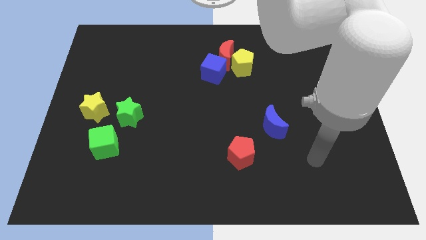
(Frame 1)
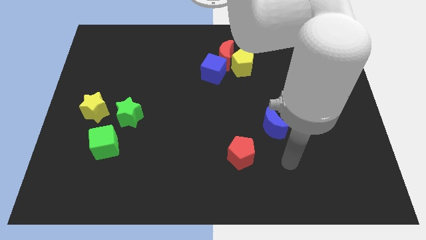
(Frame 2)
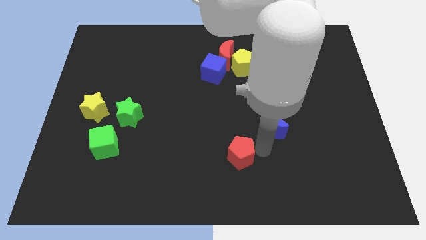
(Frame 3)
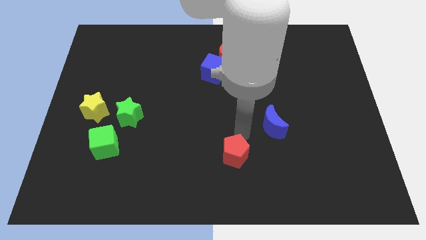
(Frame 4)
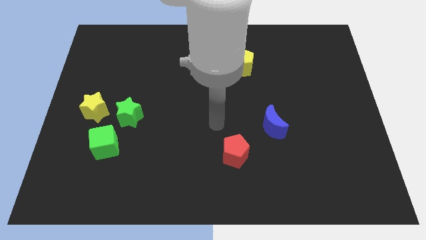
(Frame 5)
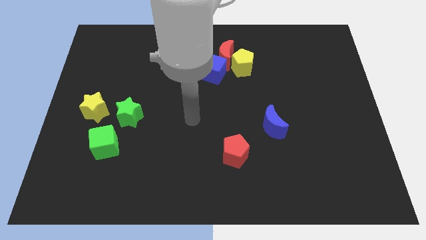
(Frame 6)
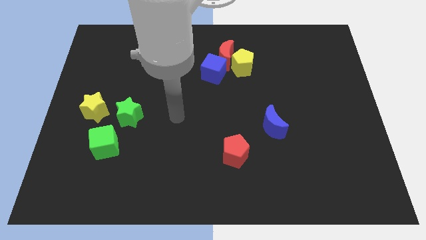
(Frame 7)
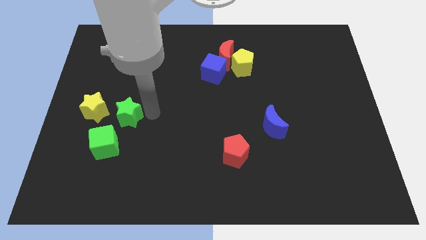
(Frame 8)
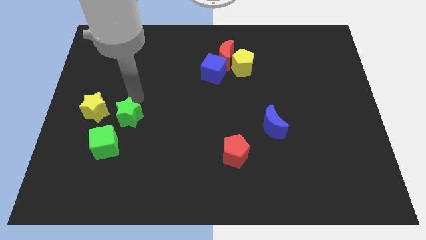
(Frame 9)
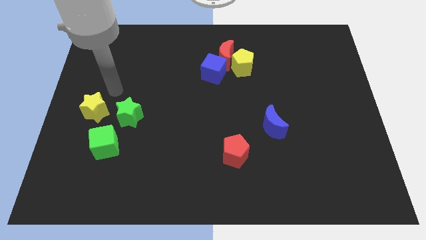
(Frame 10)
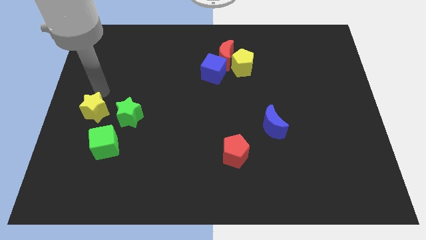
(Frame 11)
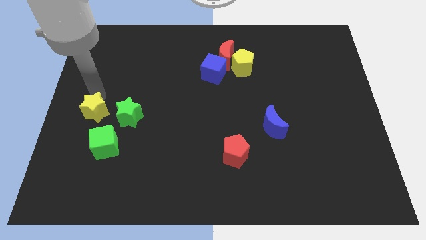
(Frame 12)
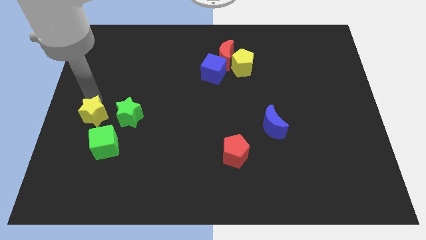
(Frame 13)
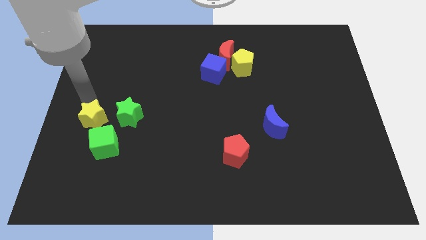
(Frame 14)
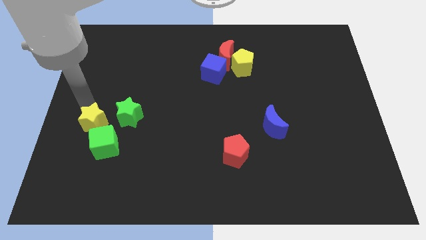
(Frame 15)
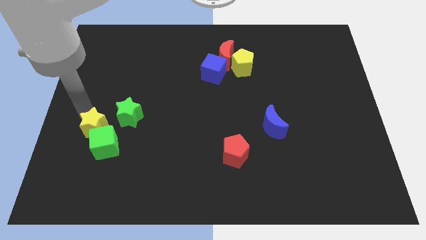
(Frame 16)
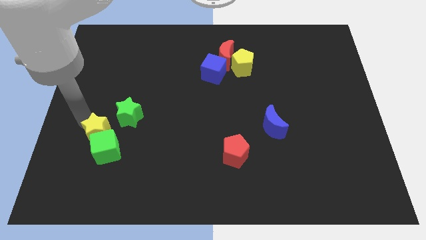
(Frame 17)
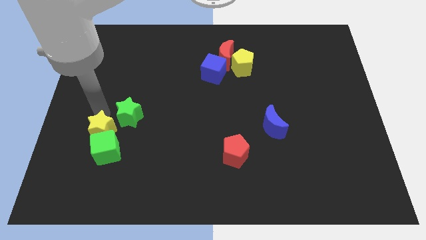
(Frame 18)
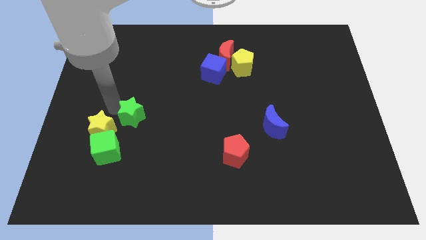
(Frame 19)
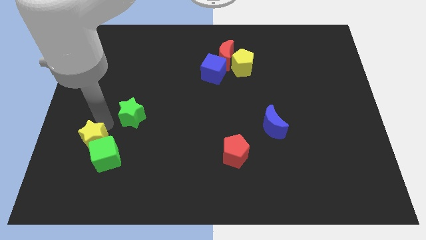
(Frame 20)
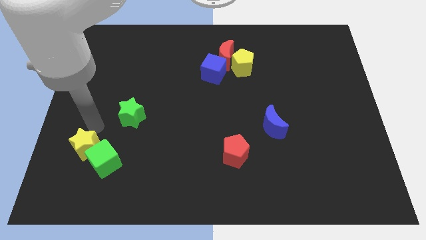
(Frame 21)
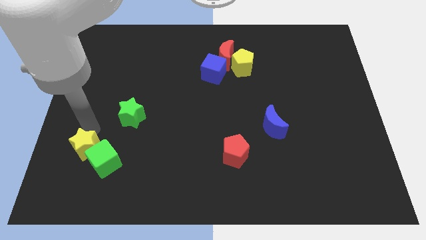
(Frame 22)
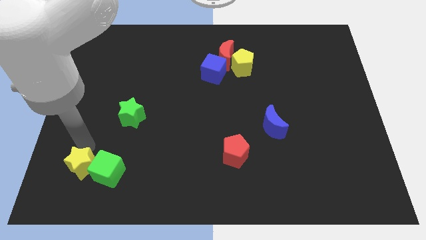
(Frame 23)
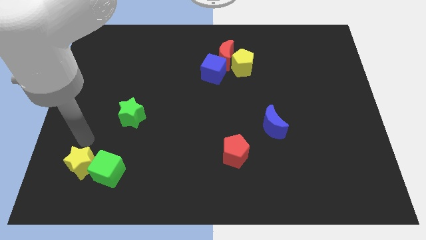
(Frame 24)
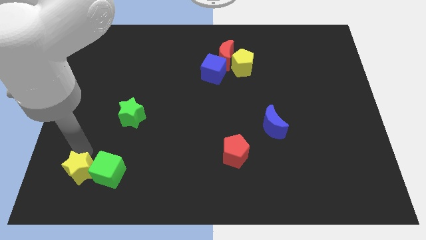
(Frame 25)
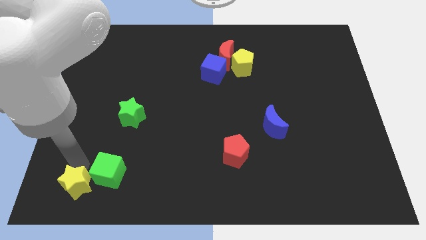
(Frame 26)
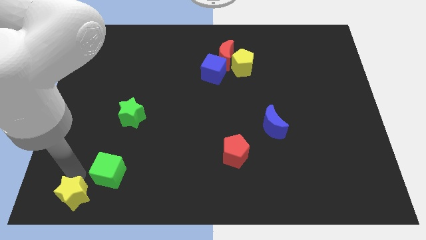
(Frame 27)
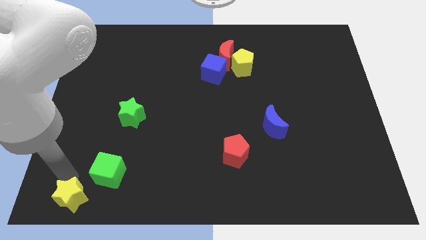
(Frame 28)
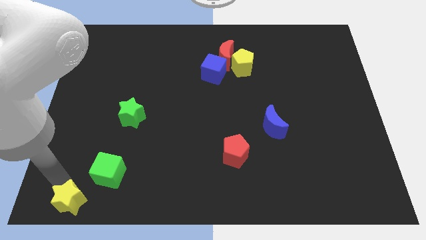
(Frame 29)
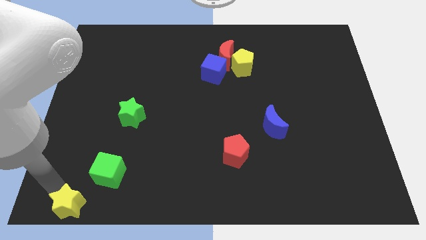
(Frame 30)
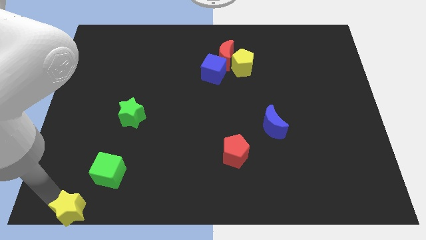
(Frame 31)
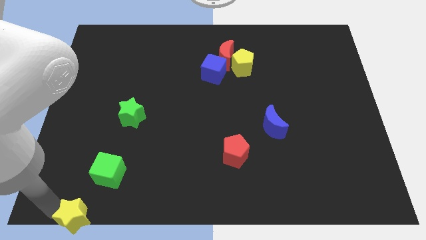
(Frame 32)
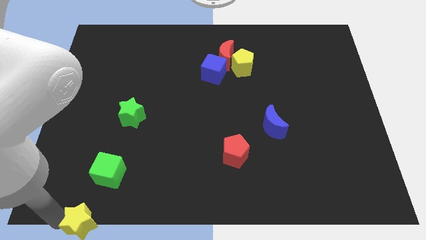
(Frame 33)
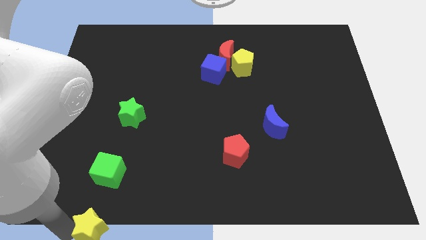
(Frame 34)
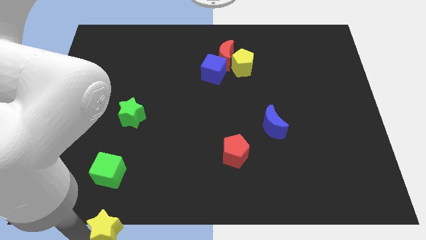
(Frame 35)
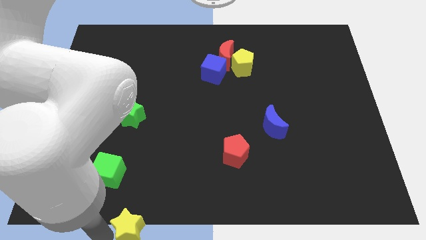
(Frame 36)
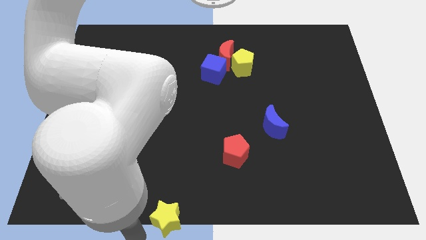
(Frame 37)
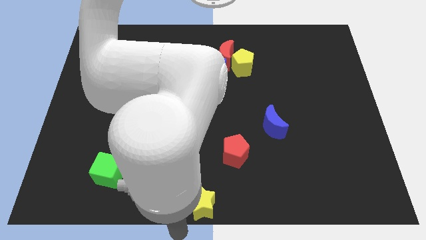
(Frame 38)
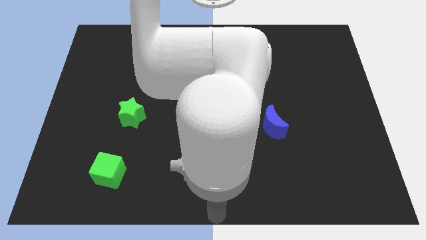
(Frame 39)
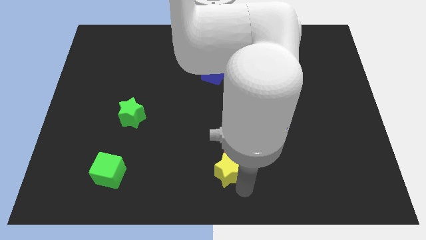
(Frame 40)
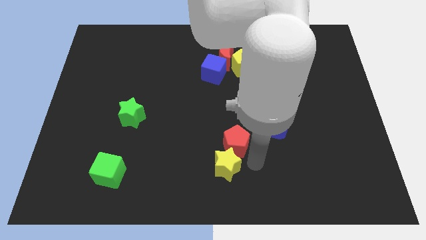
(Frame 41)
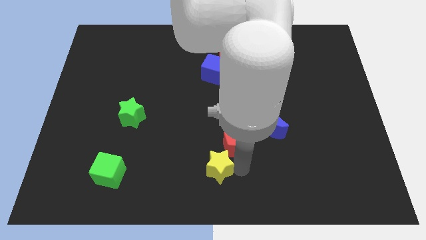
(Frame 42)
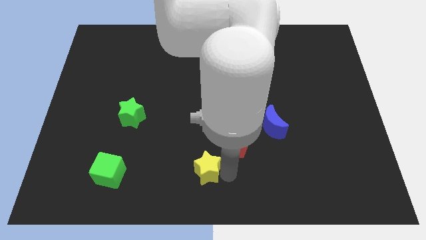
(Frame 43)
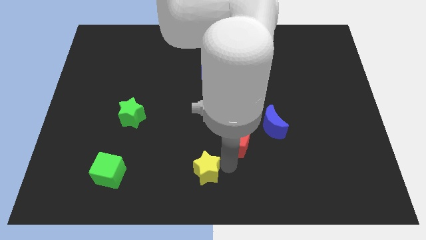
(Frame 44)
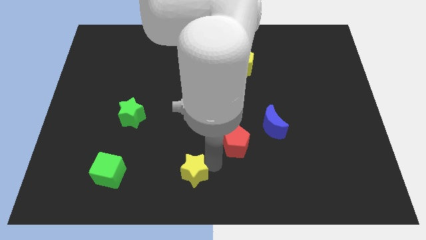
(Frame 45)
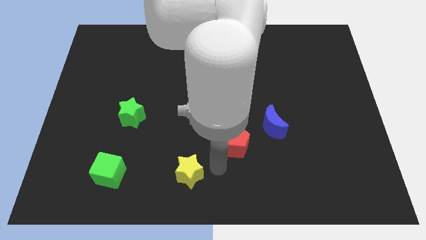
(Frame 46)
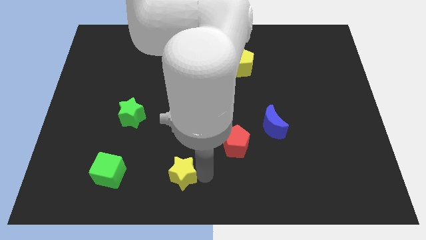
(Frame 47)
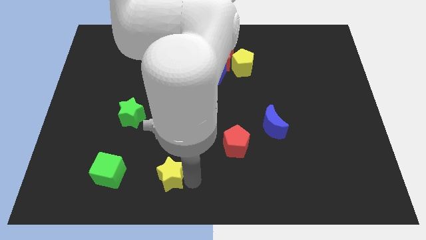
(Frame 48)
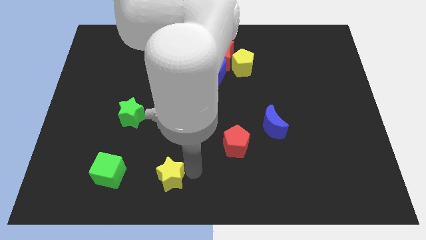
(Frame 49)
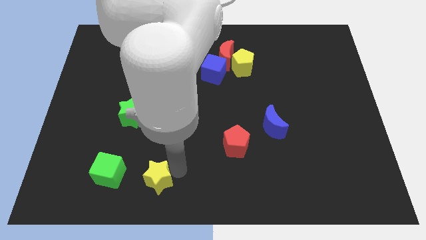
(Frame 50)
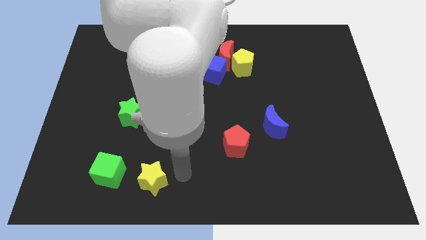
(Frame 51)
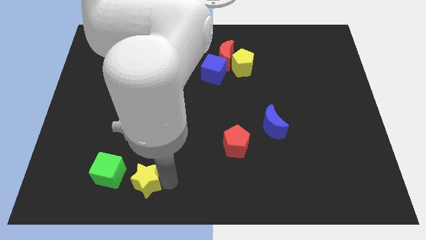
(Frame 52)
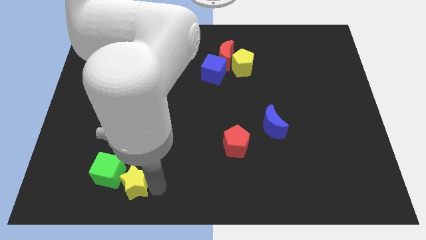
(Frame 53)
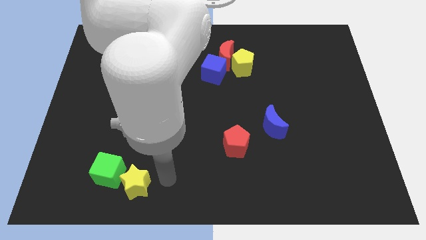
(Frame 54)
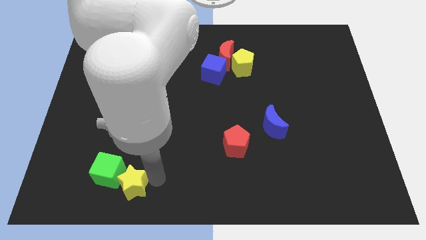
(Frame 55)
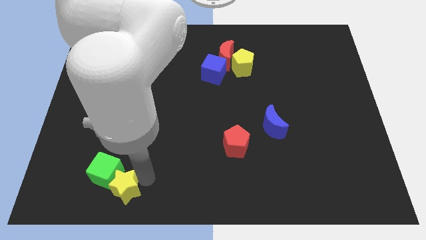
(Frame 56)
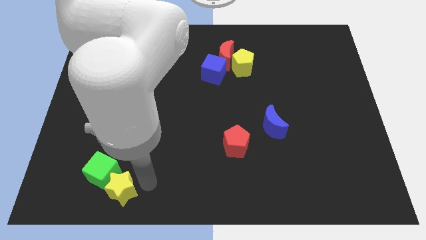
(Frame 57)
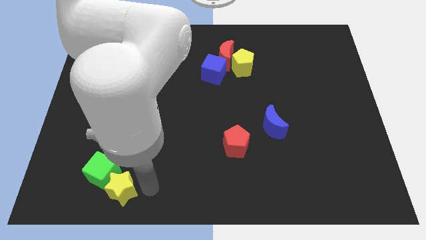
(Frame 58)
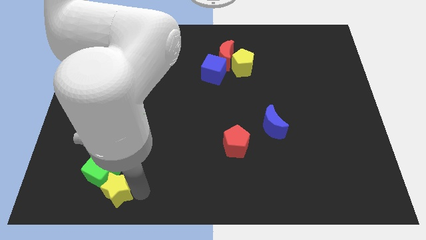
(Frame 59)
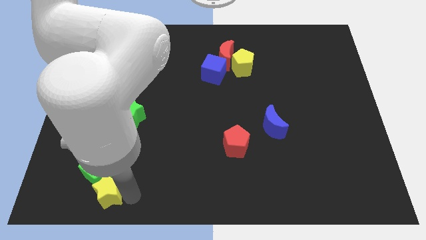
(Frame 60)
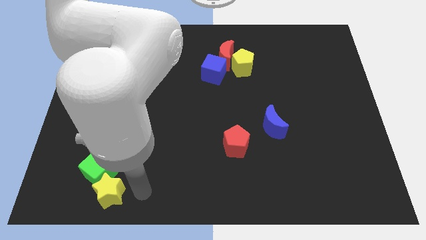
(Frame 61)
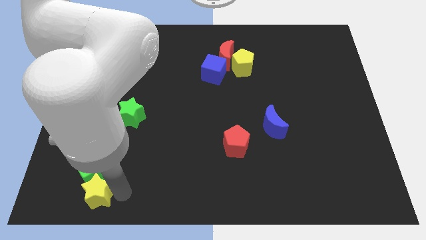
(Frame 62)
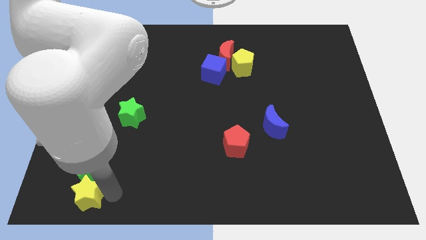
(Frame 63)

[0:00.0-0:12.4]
slide the yellow star to the bottom left of the green cube

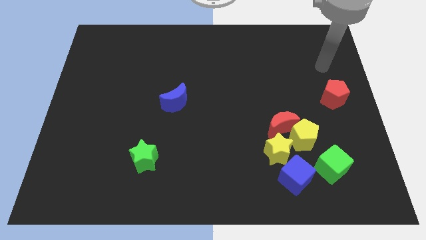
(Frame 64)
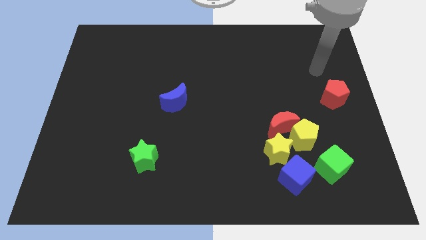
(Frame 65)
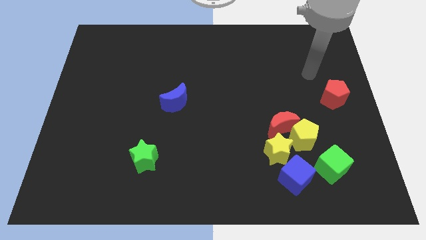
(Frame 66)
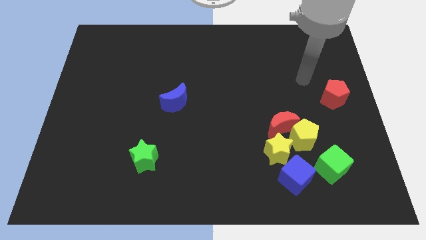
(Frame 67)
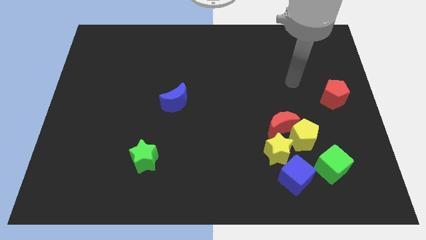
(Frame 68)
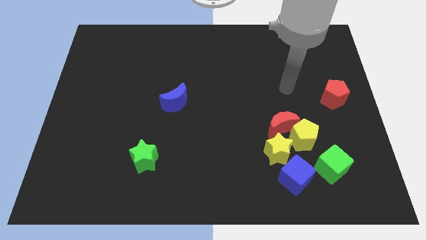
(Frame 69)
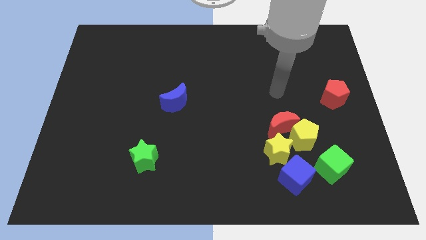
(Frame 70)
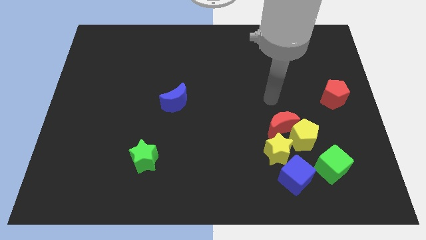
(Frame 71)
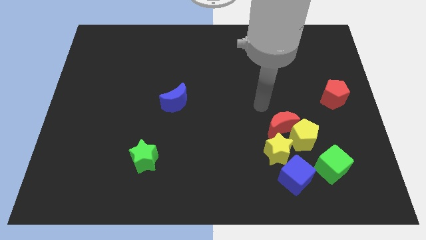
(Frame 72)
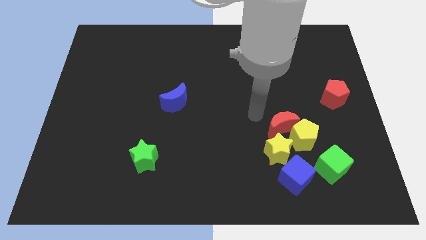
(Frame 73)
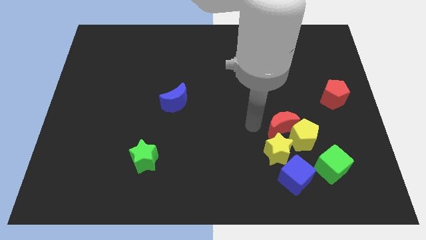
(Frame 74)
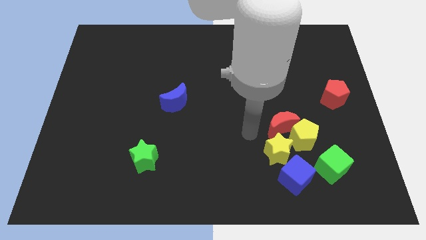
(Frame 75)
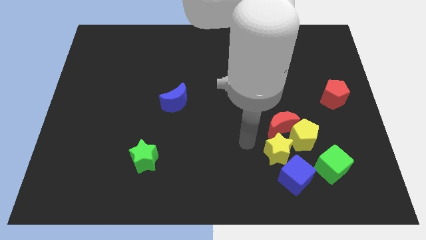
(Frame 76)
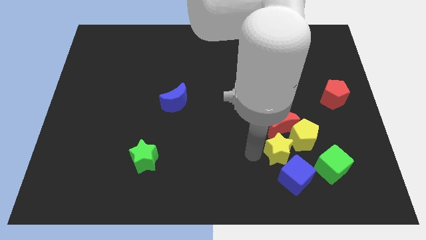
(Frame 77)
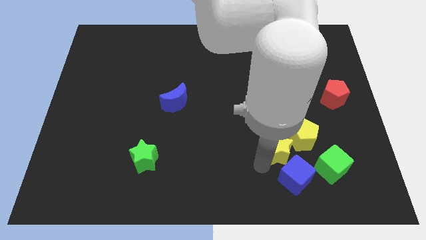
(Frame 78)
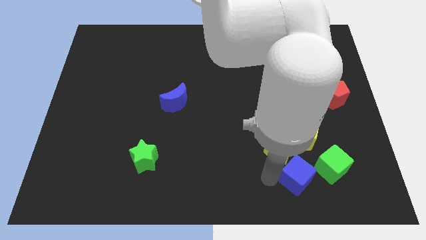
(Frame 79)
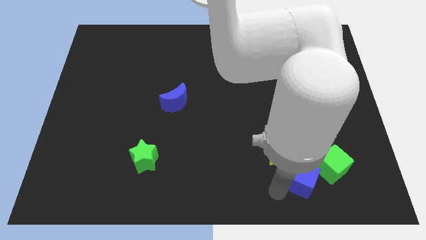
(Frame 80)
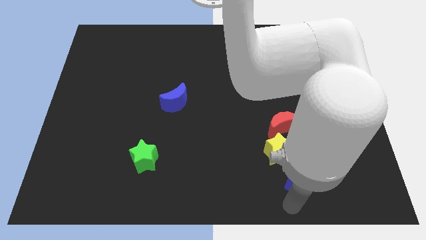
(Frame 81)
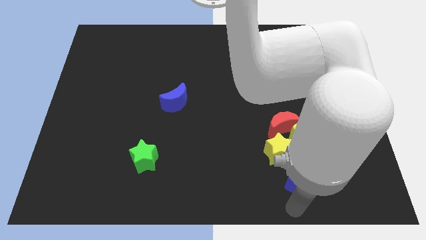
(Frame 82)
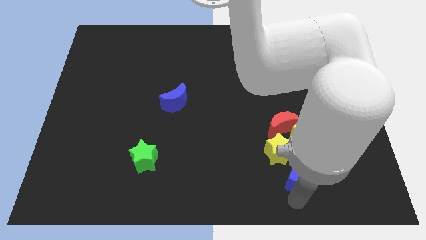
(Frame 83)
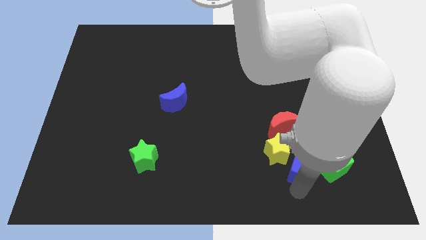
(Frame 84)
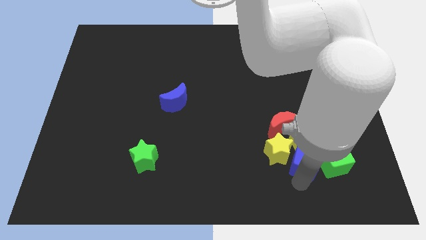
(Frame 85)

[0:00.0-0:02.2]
move the blue cube to the bottom right of the red moon
